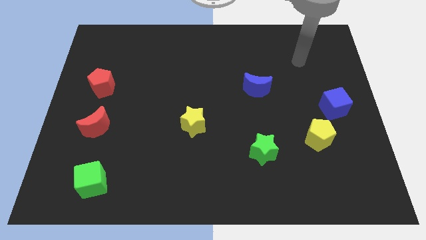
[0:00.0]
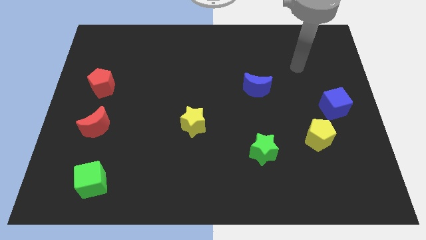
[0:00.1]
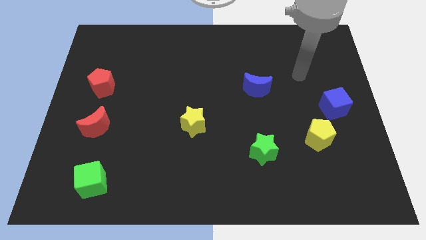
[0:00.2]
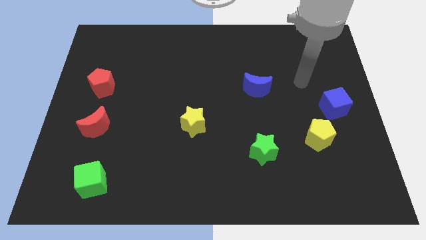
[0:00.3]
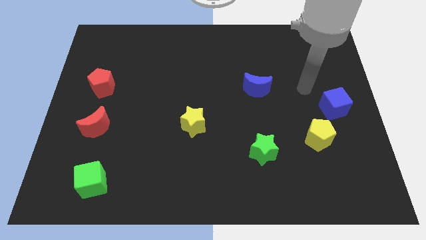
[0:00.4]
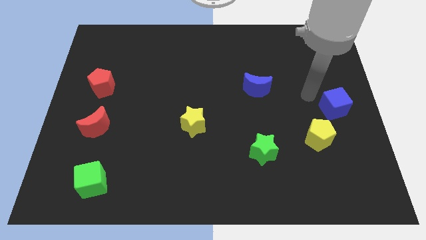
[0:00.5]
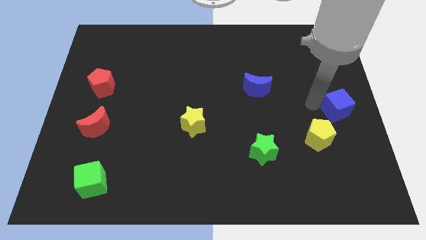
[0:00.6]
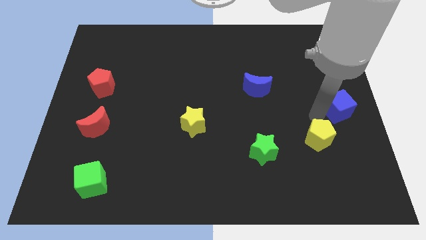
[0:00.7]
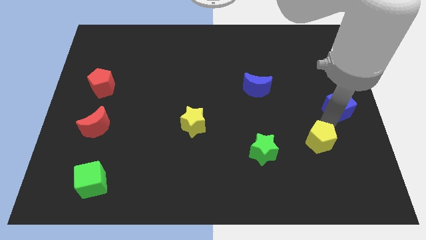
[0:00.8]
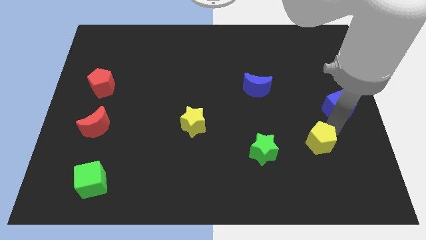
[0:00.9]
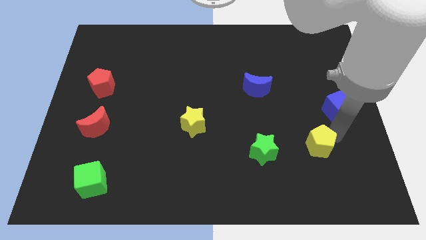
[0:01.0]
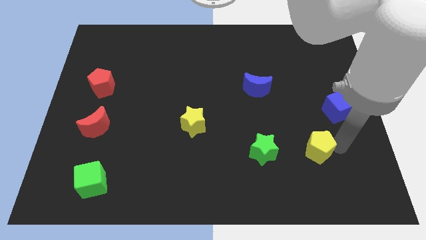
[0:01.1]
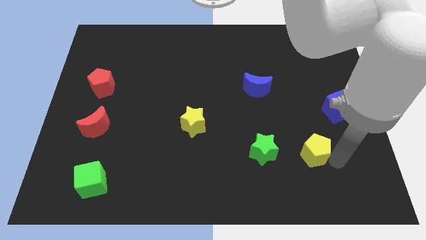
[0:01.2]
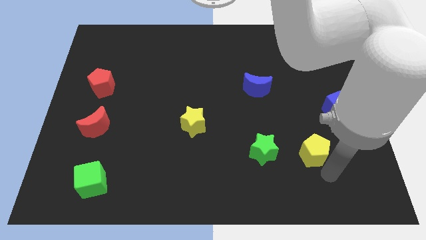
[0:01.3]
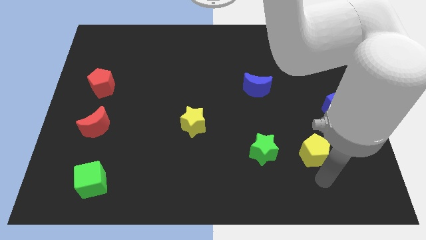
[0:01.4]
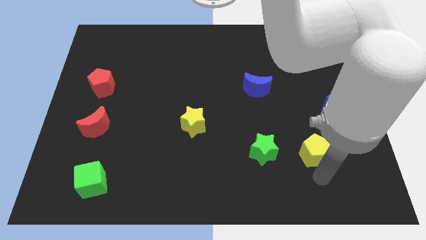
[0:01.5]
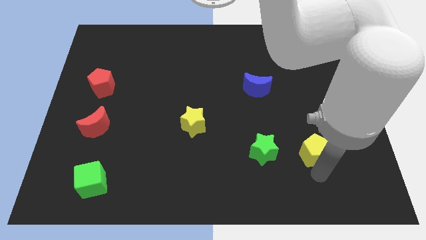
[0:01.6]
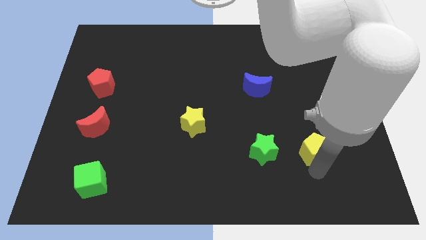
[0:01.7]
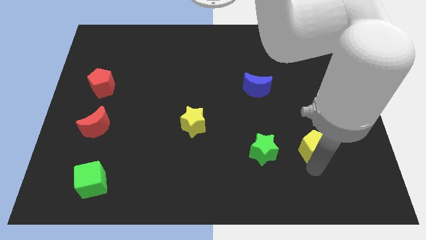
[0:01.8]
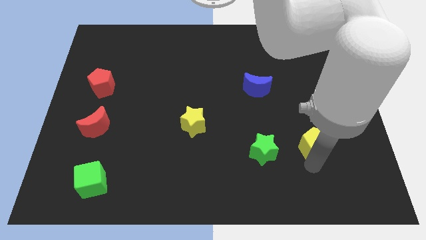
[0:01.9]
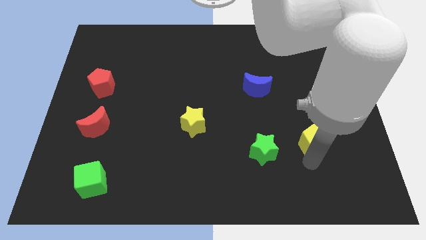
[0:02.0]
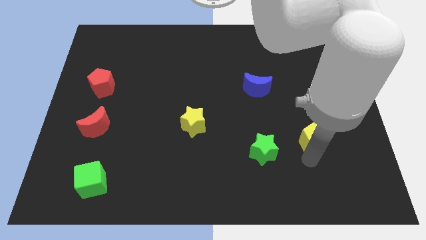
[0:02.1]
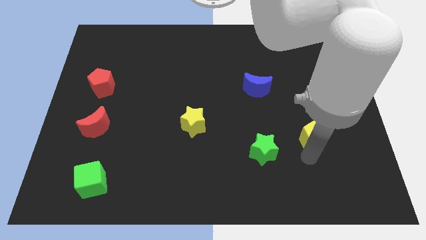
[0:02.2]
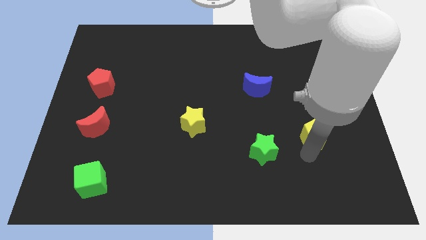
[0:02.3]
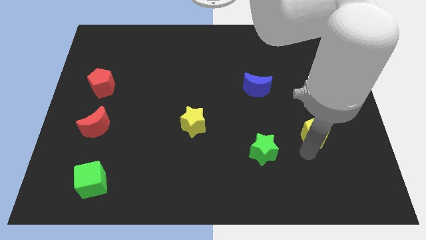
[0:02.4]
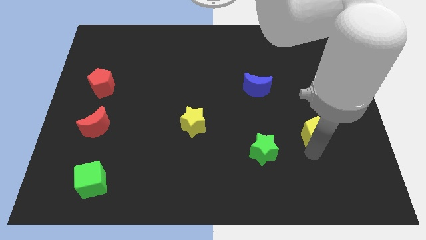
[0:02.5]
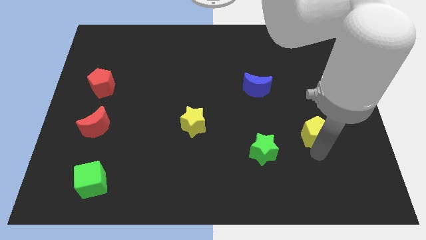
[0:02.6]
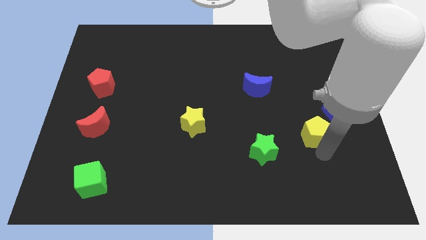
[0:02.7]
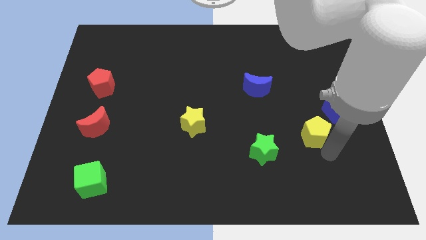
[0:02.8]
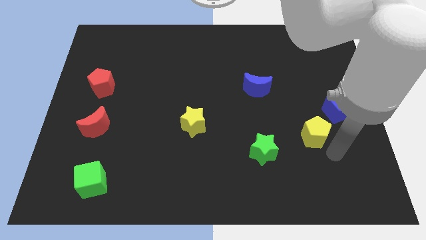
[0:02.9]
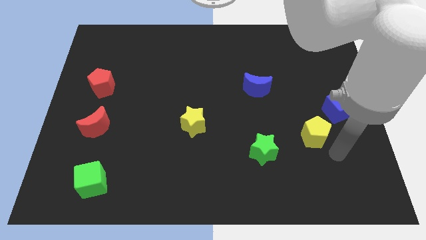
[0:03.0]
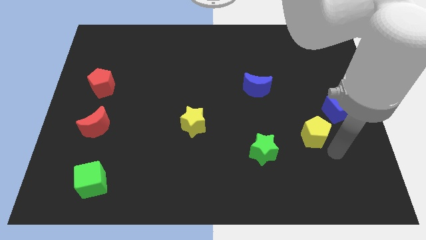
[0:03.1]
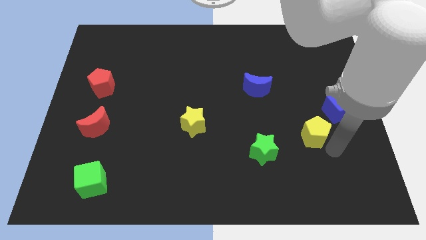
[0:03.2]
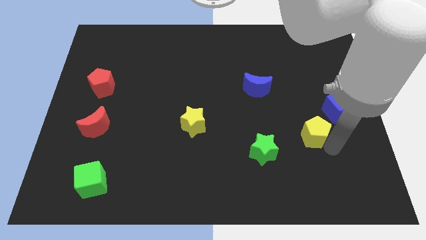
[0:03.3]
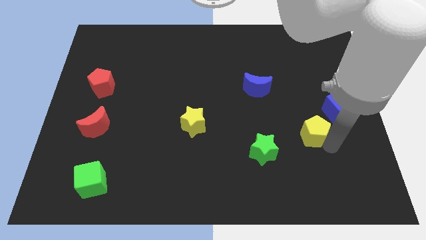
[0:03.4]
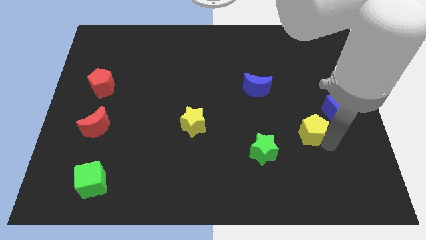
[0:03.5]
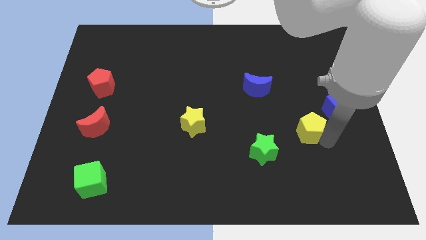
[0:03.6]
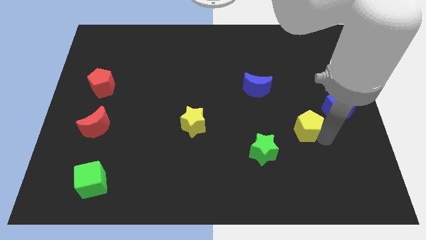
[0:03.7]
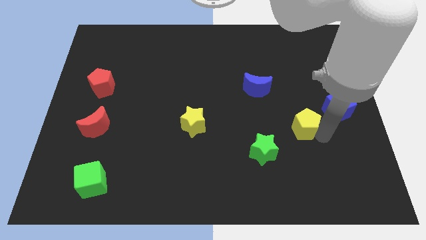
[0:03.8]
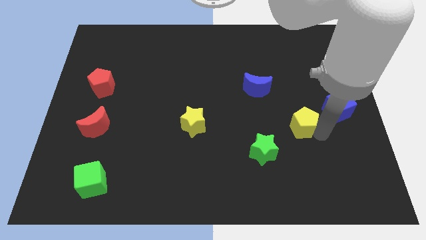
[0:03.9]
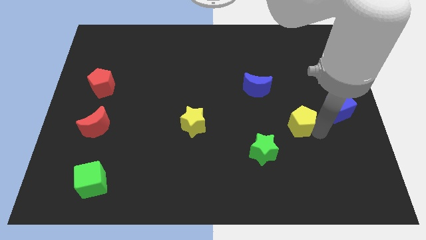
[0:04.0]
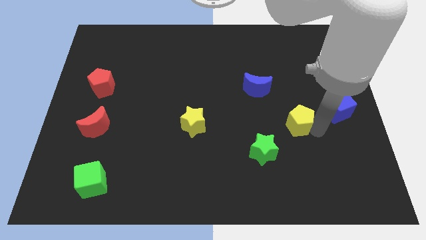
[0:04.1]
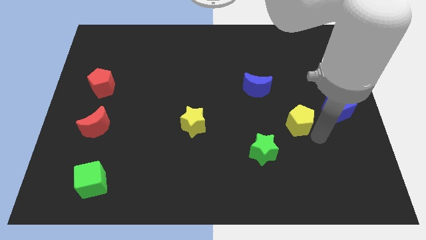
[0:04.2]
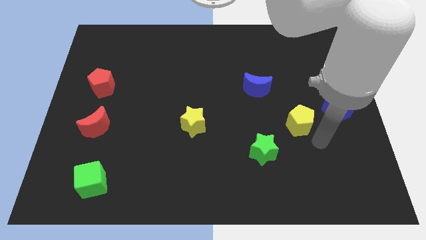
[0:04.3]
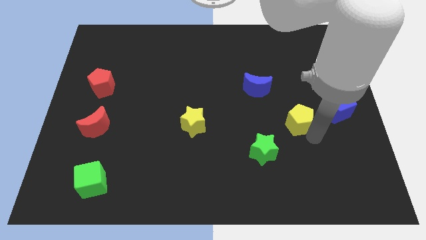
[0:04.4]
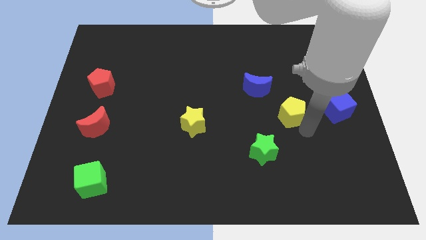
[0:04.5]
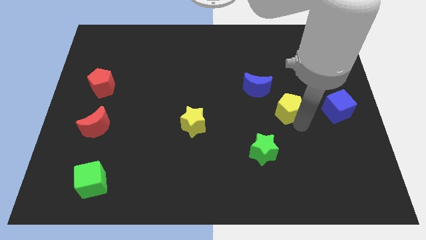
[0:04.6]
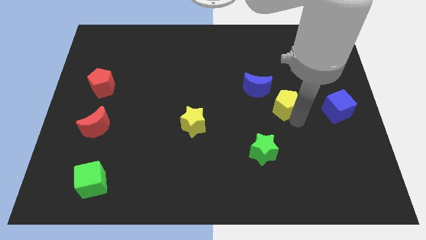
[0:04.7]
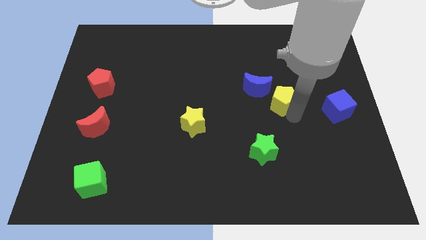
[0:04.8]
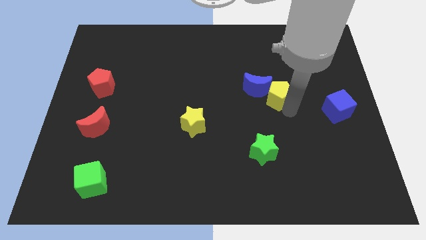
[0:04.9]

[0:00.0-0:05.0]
push the yellow pentagon towards the blue moon

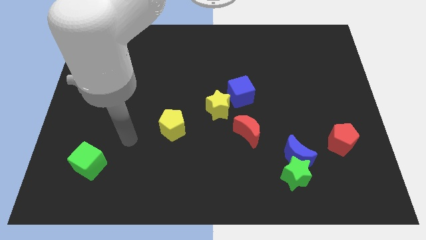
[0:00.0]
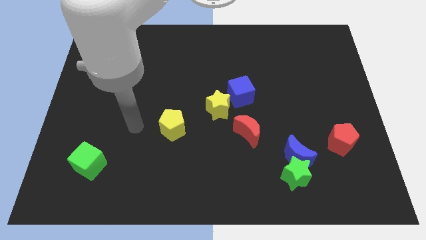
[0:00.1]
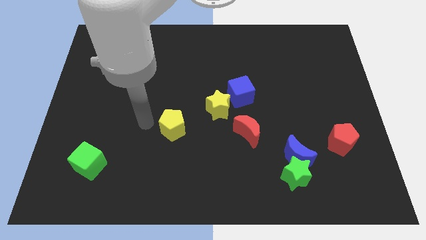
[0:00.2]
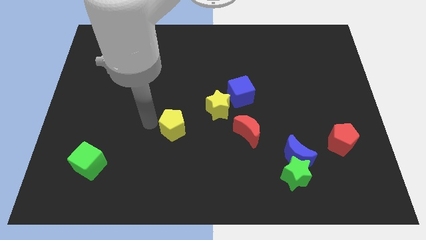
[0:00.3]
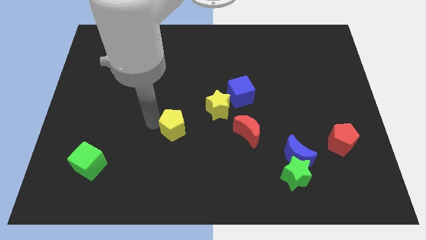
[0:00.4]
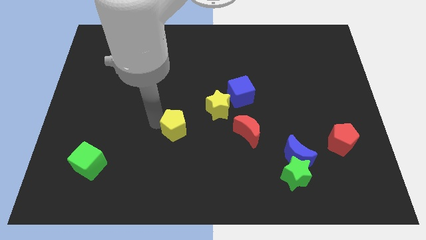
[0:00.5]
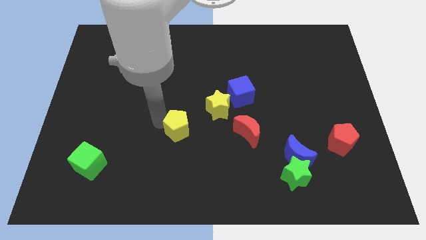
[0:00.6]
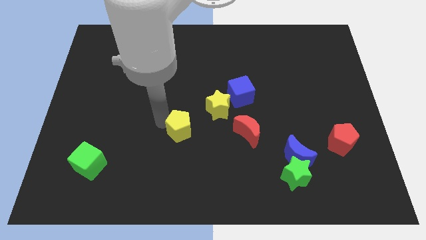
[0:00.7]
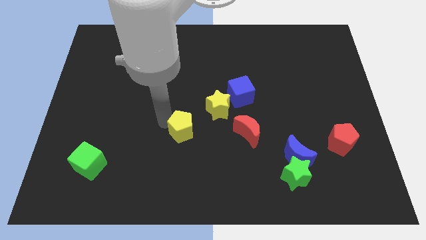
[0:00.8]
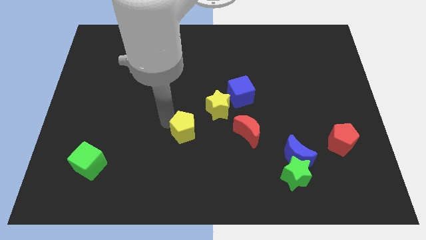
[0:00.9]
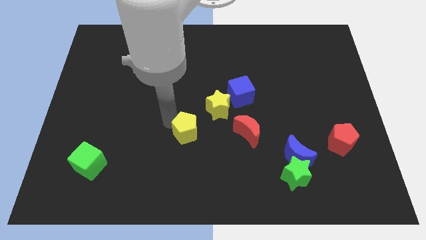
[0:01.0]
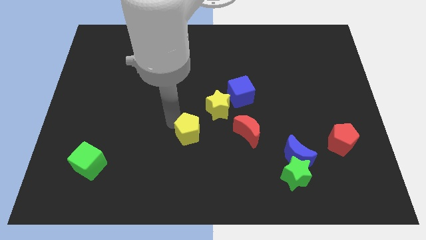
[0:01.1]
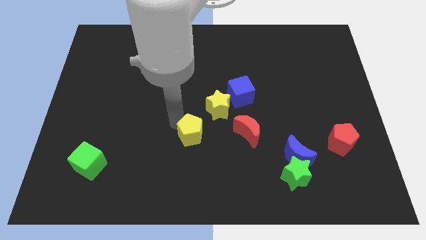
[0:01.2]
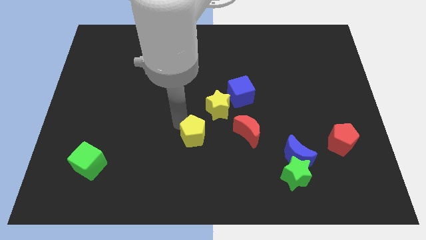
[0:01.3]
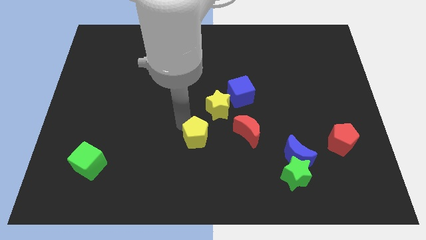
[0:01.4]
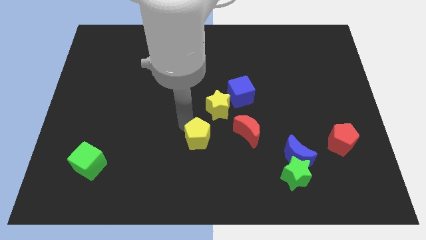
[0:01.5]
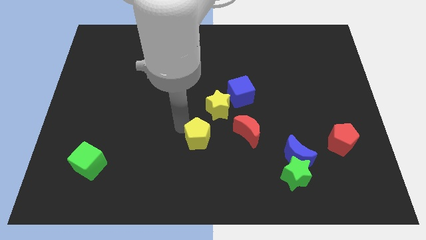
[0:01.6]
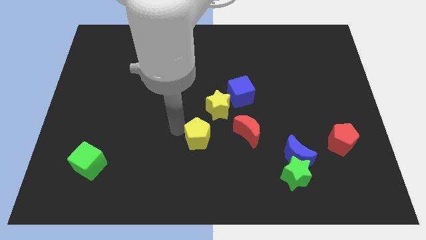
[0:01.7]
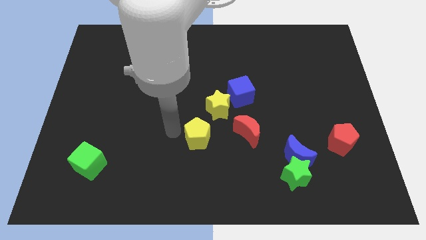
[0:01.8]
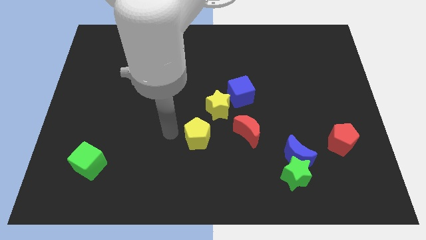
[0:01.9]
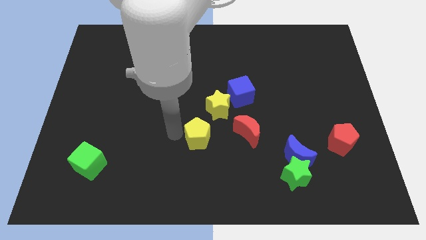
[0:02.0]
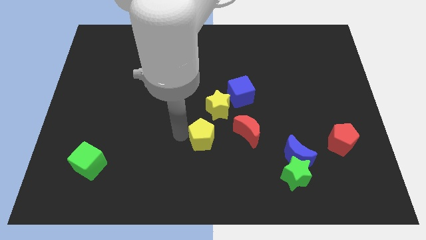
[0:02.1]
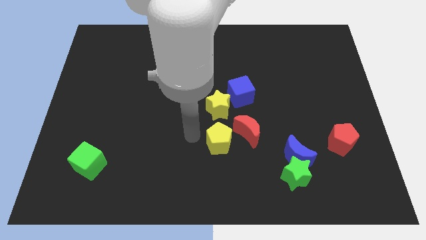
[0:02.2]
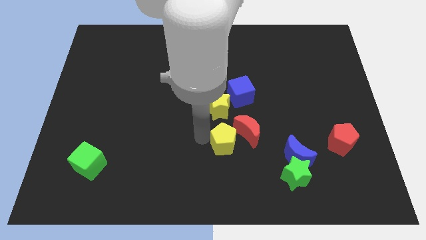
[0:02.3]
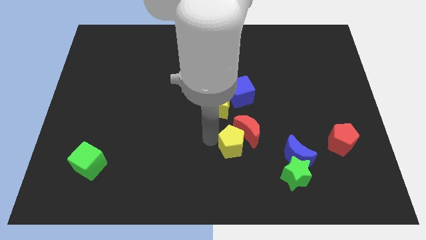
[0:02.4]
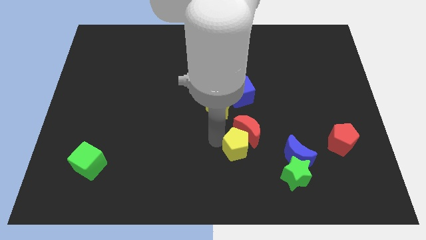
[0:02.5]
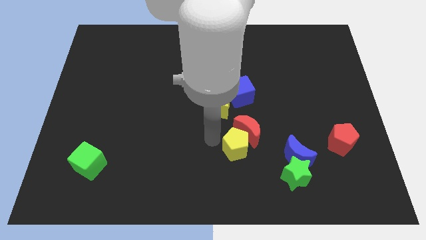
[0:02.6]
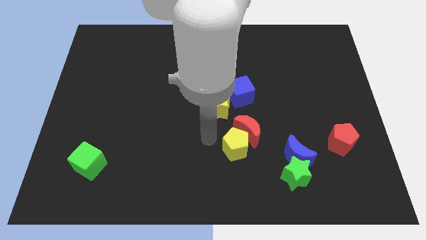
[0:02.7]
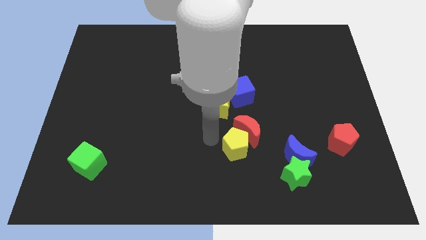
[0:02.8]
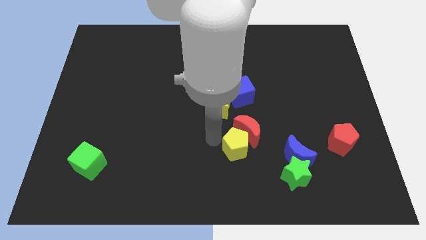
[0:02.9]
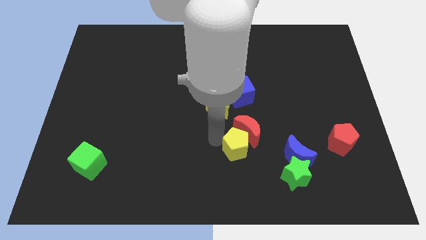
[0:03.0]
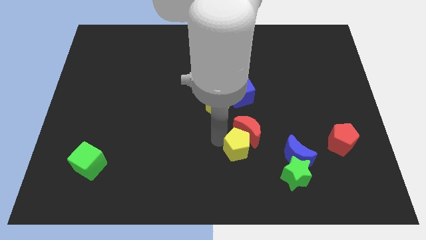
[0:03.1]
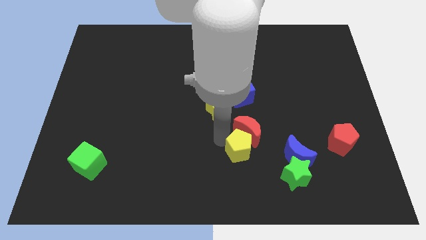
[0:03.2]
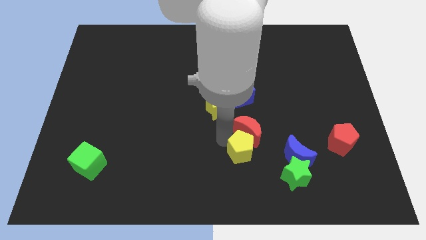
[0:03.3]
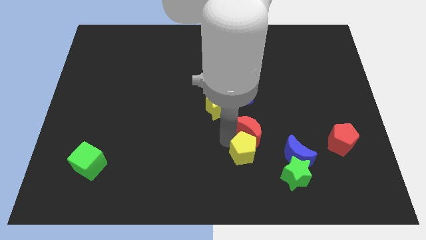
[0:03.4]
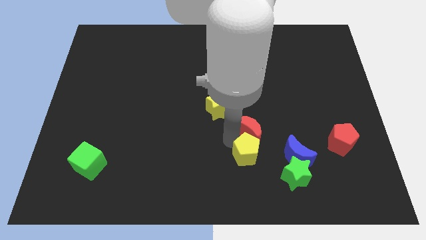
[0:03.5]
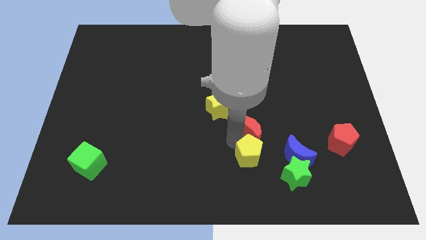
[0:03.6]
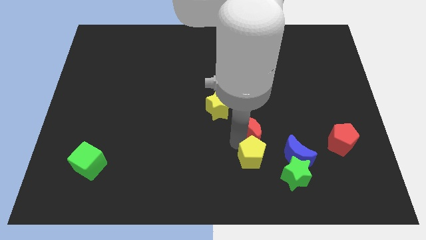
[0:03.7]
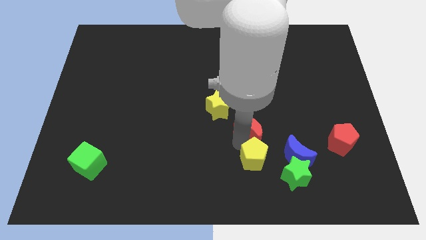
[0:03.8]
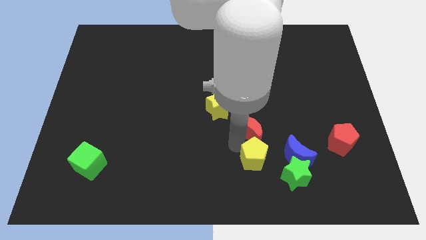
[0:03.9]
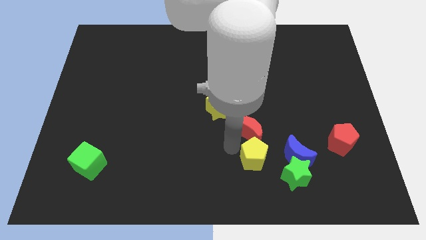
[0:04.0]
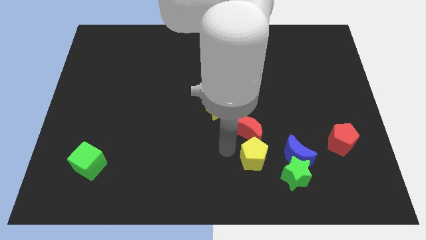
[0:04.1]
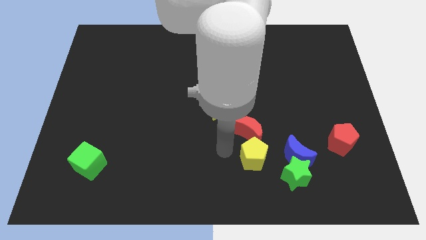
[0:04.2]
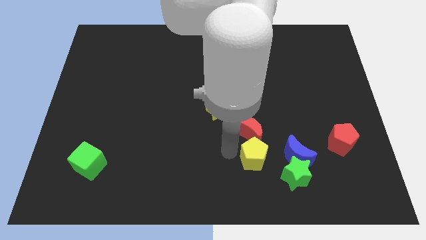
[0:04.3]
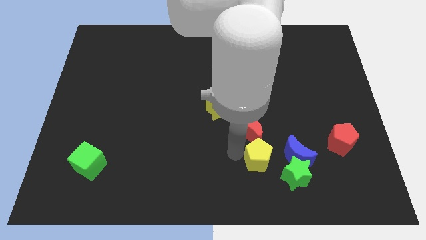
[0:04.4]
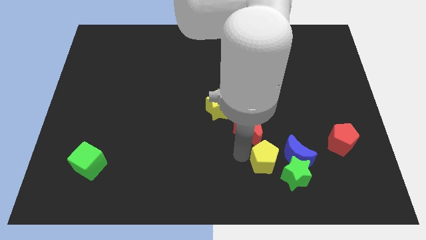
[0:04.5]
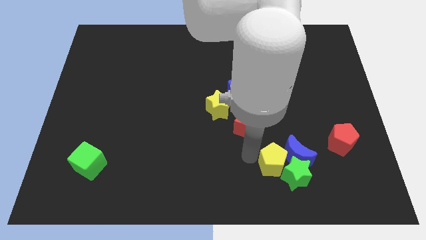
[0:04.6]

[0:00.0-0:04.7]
put the yellow pentagon close to the green star
